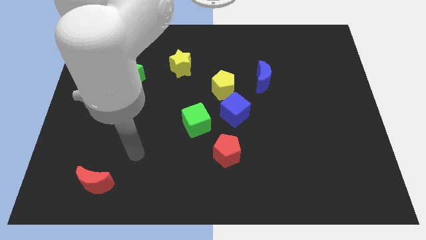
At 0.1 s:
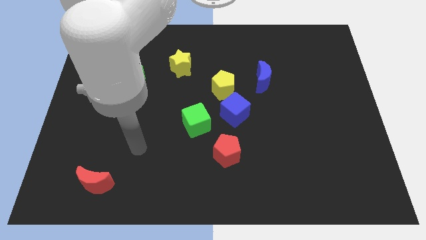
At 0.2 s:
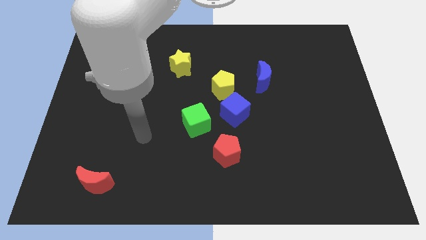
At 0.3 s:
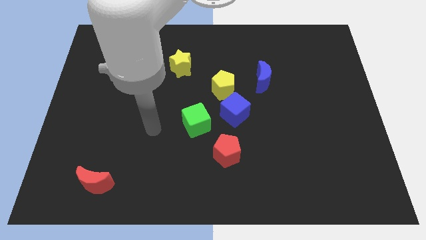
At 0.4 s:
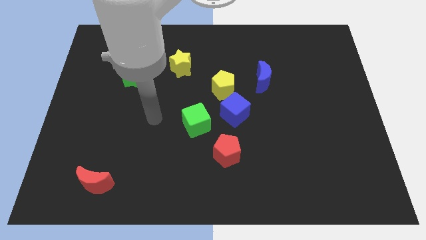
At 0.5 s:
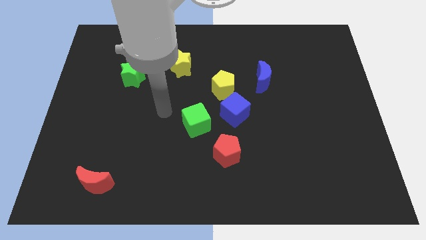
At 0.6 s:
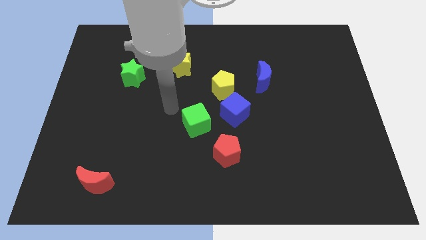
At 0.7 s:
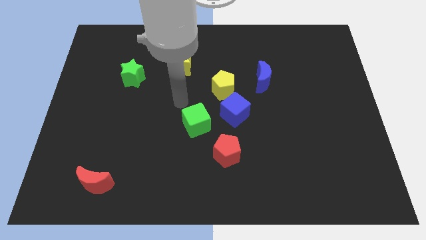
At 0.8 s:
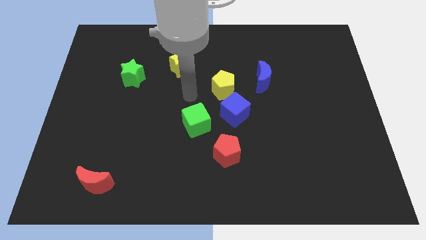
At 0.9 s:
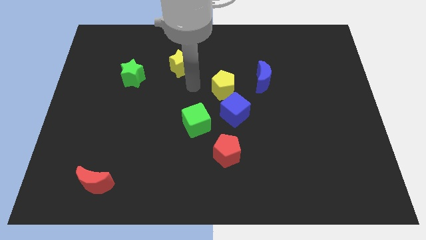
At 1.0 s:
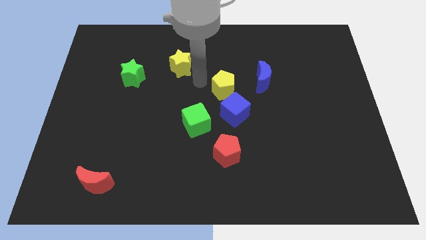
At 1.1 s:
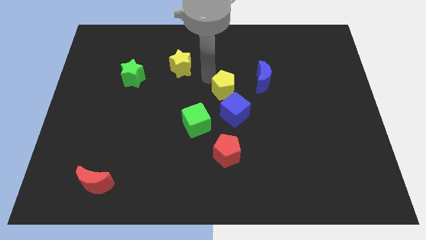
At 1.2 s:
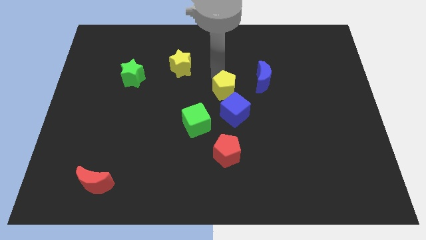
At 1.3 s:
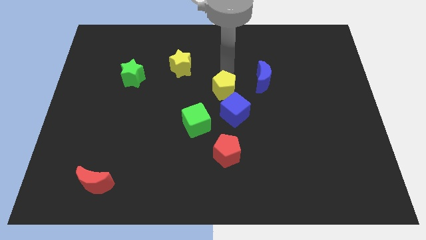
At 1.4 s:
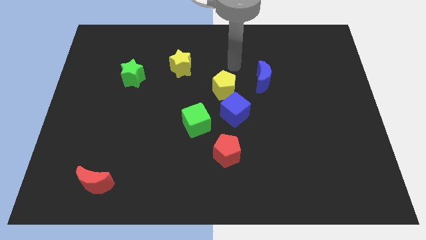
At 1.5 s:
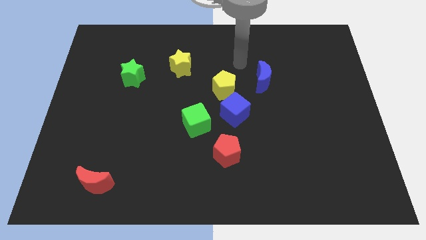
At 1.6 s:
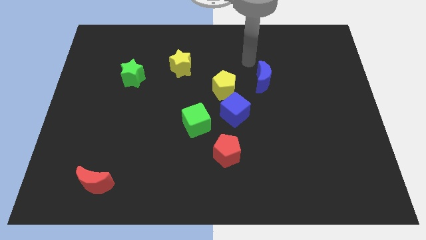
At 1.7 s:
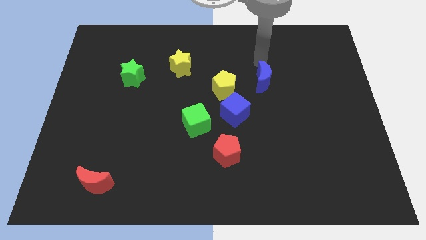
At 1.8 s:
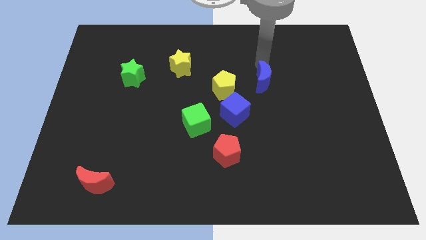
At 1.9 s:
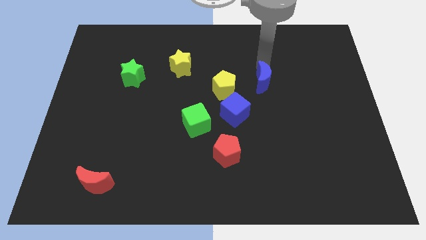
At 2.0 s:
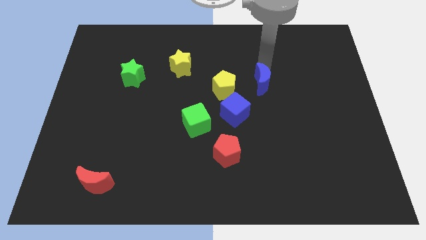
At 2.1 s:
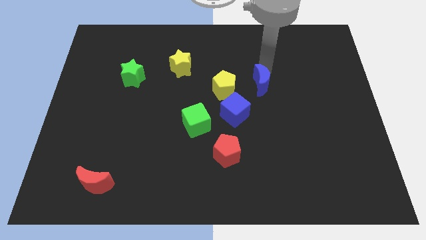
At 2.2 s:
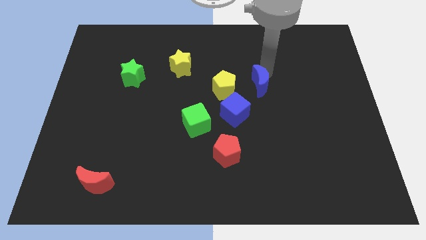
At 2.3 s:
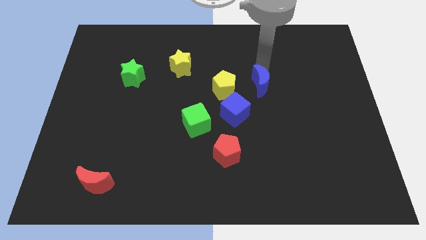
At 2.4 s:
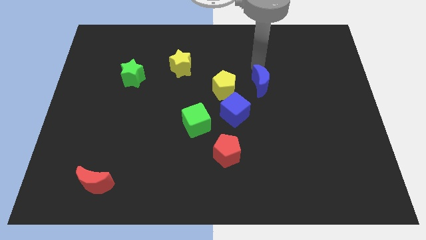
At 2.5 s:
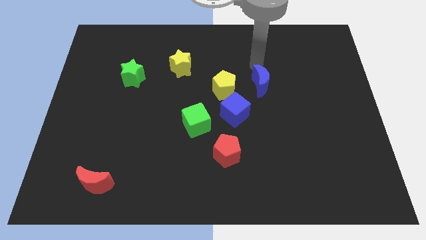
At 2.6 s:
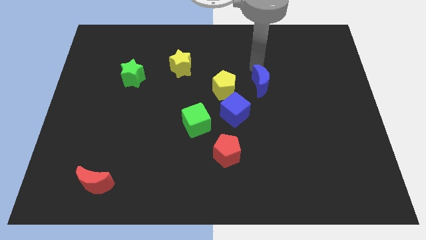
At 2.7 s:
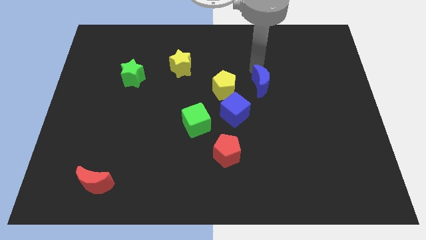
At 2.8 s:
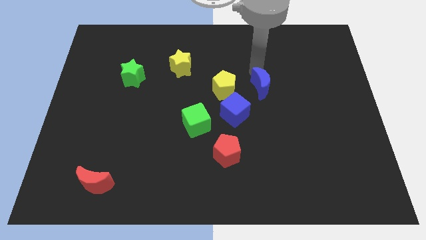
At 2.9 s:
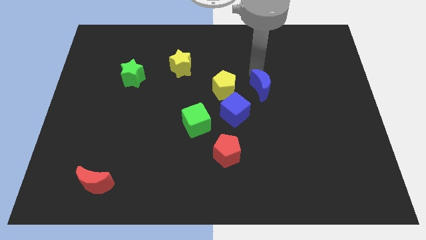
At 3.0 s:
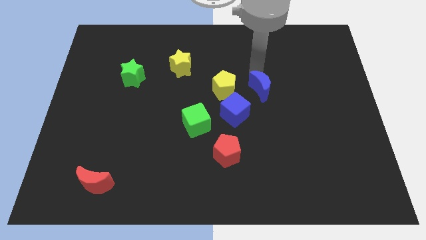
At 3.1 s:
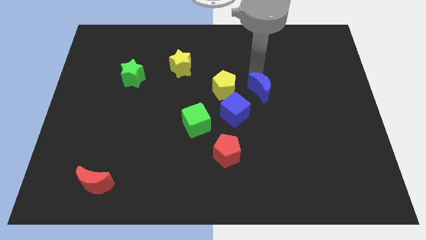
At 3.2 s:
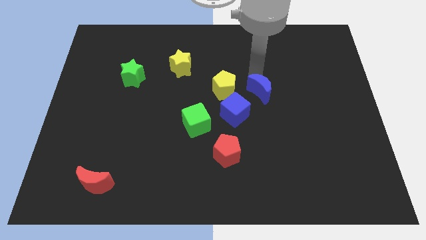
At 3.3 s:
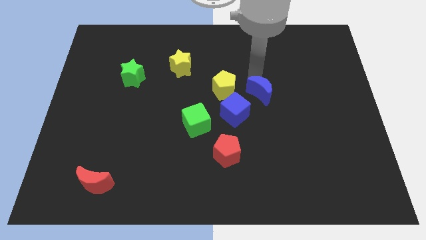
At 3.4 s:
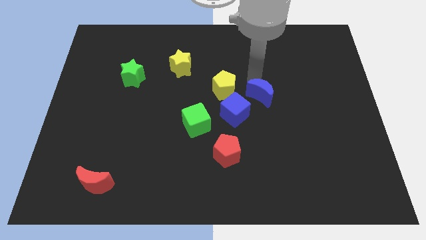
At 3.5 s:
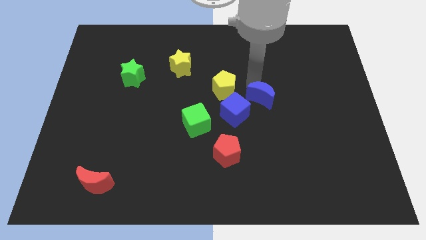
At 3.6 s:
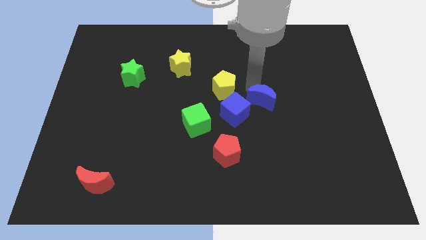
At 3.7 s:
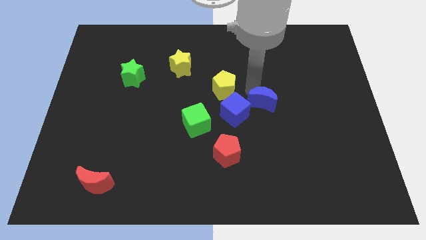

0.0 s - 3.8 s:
move the blue moon a little down

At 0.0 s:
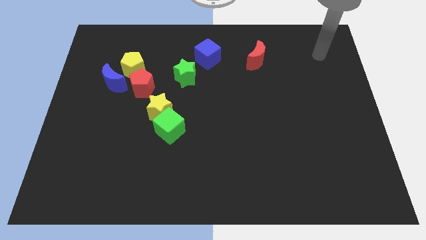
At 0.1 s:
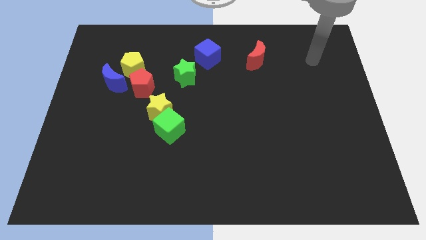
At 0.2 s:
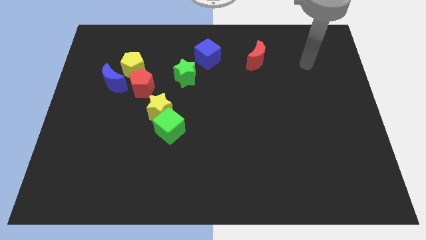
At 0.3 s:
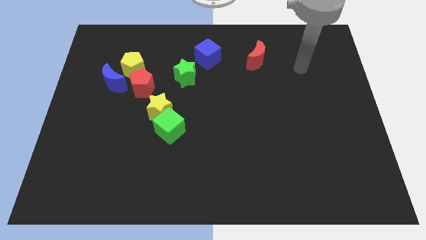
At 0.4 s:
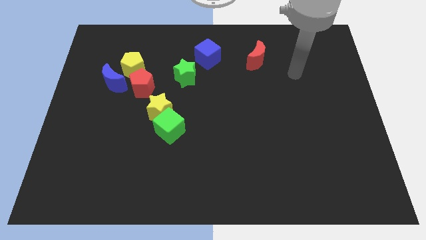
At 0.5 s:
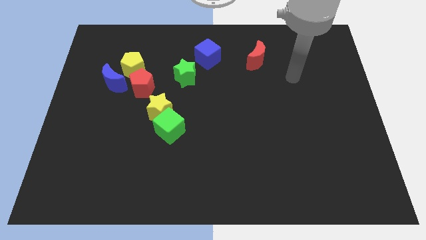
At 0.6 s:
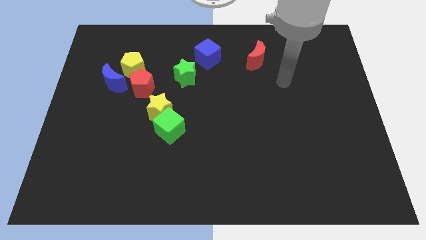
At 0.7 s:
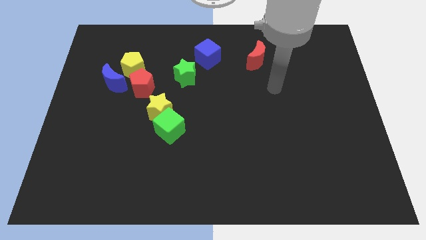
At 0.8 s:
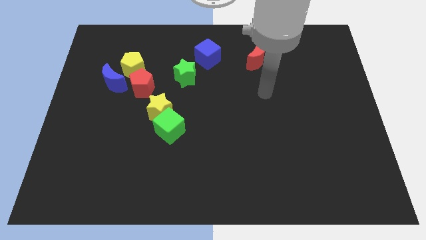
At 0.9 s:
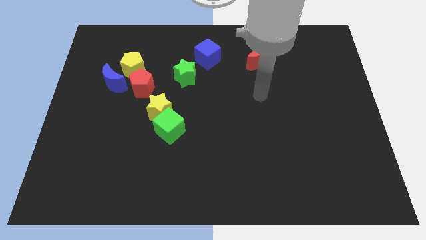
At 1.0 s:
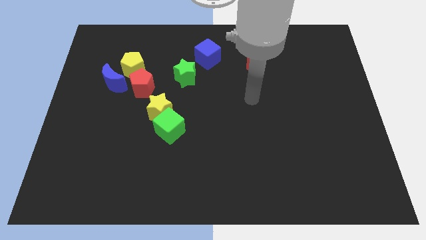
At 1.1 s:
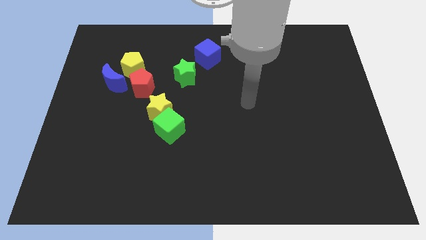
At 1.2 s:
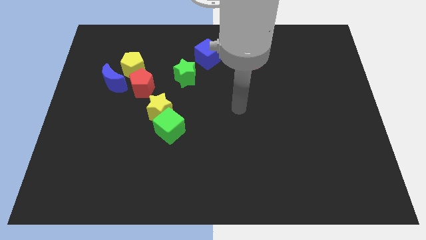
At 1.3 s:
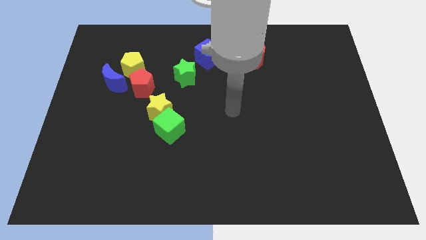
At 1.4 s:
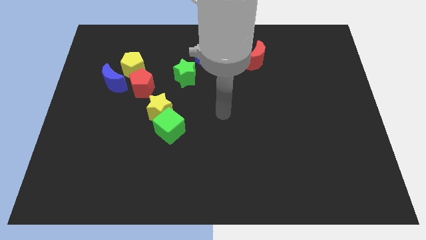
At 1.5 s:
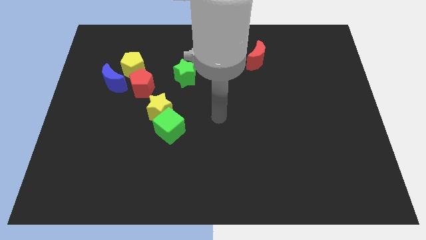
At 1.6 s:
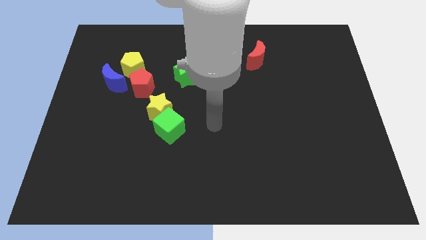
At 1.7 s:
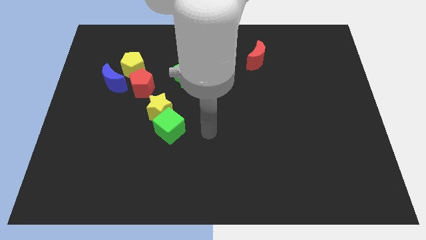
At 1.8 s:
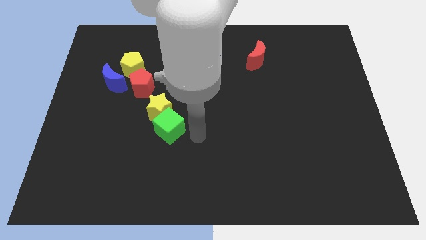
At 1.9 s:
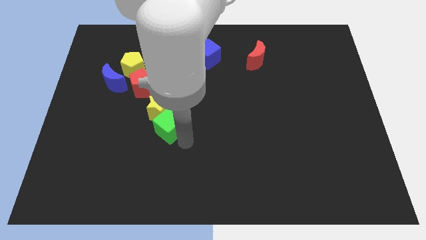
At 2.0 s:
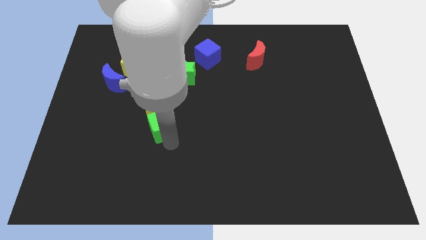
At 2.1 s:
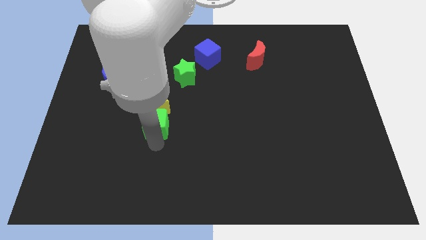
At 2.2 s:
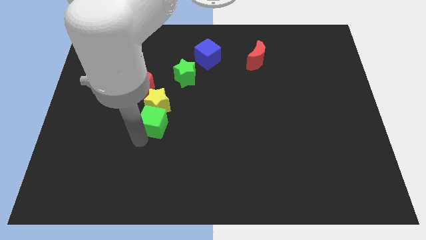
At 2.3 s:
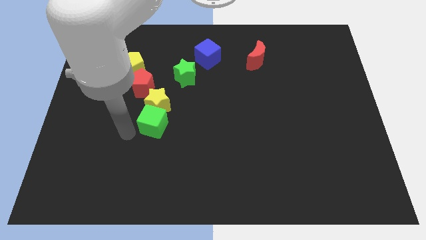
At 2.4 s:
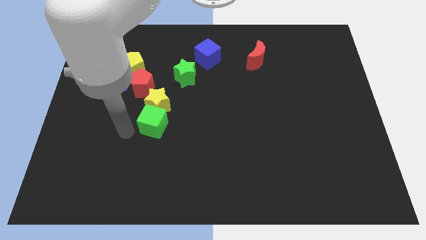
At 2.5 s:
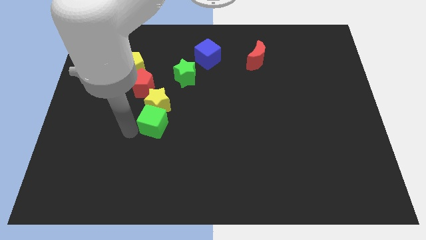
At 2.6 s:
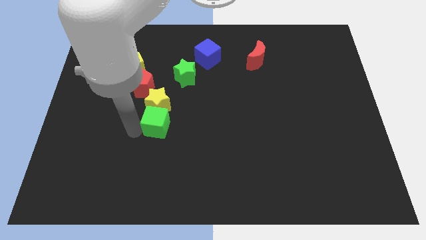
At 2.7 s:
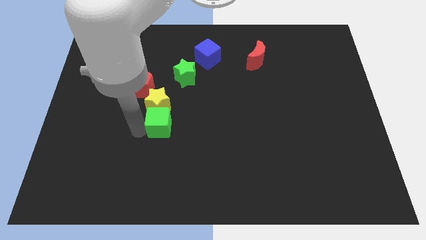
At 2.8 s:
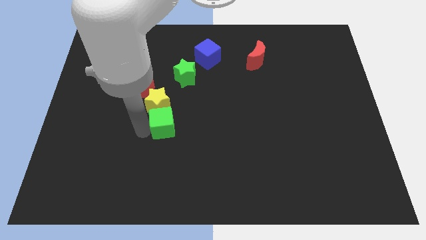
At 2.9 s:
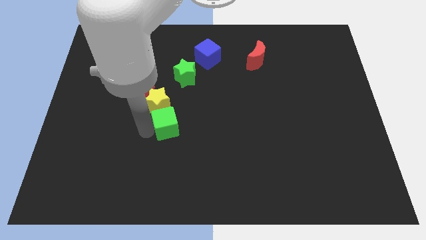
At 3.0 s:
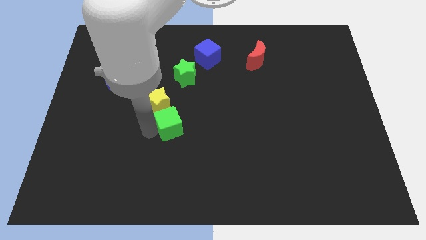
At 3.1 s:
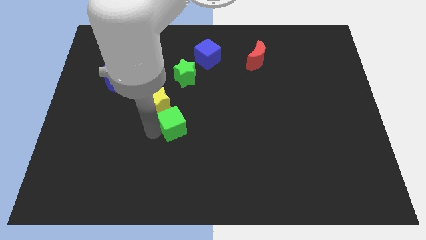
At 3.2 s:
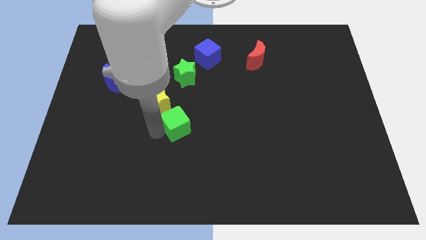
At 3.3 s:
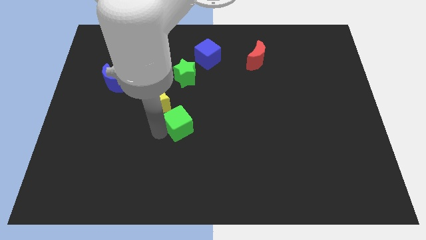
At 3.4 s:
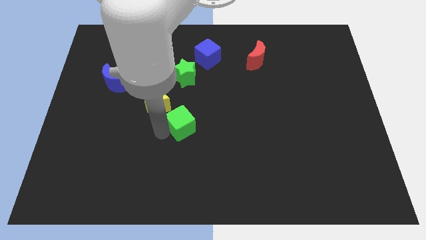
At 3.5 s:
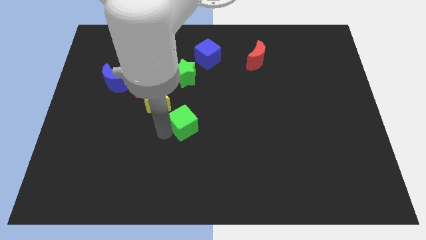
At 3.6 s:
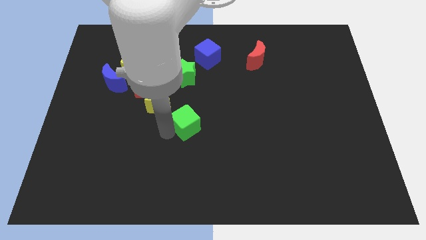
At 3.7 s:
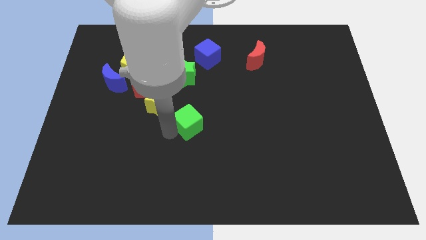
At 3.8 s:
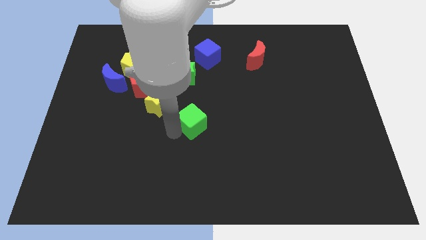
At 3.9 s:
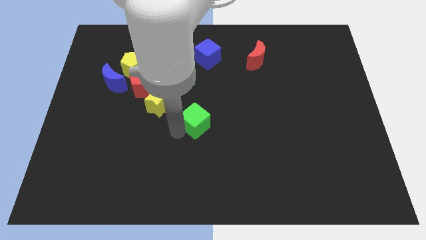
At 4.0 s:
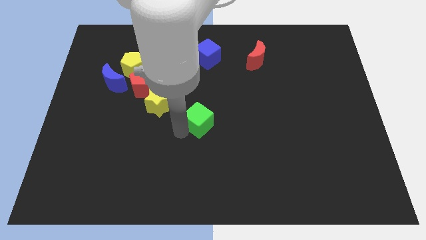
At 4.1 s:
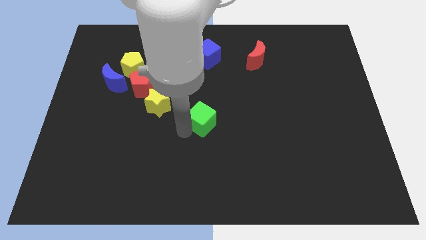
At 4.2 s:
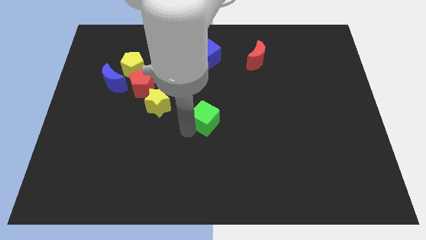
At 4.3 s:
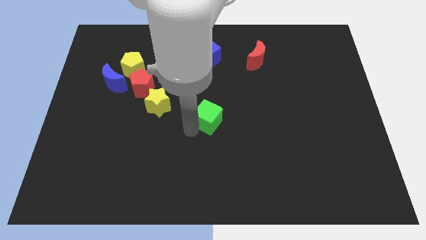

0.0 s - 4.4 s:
push the green cube diagonally upwards and right a little
